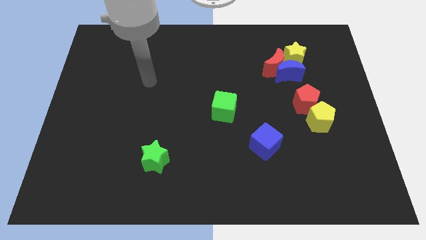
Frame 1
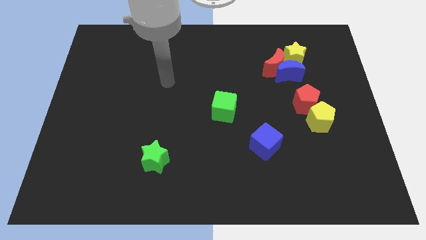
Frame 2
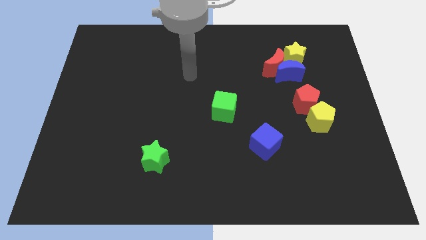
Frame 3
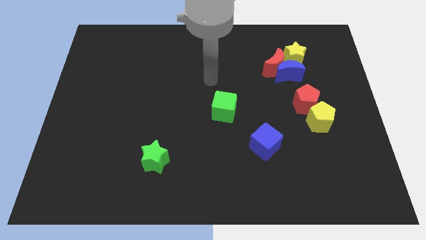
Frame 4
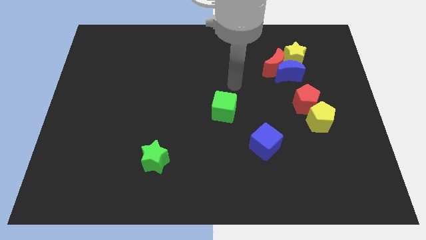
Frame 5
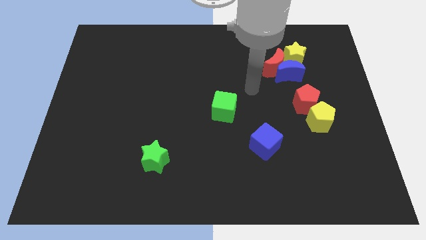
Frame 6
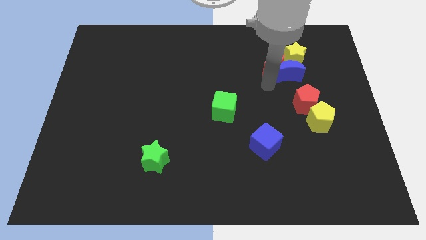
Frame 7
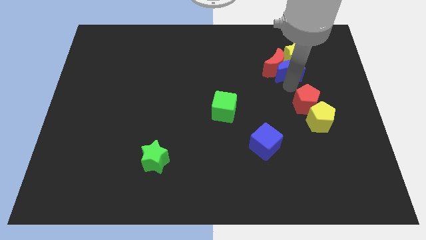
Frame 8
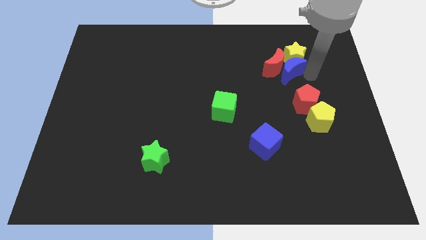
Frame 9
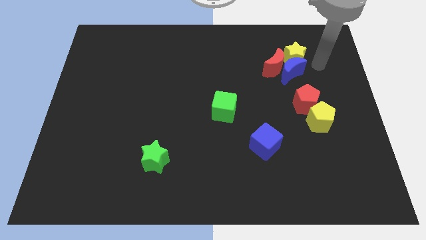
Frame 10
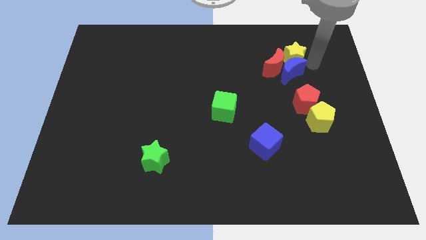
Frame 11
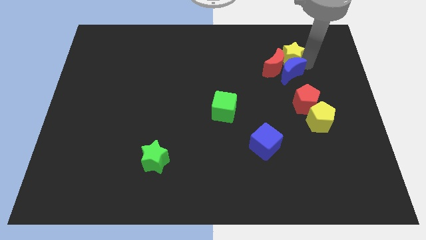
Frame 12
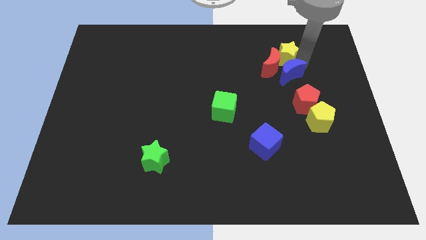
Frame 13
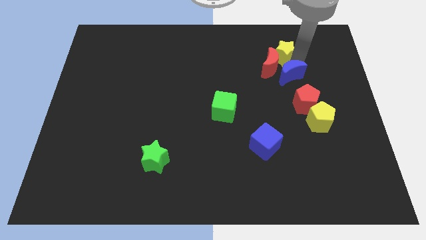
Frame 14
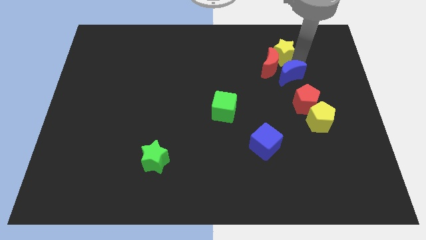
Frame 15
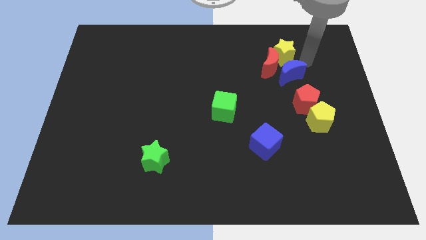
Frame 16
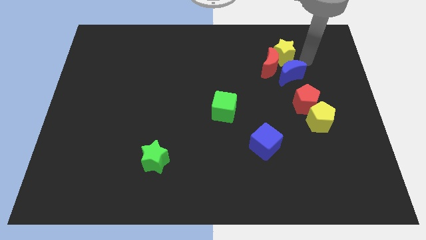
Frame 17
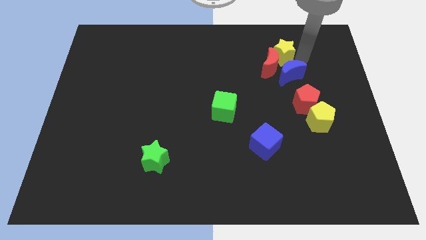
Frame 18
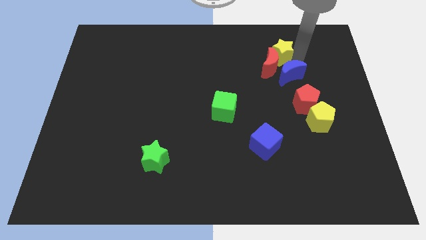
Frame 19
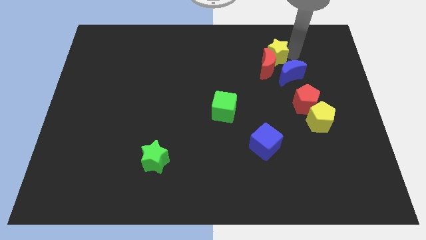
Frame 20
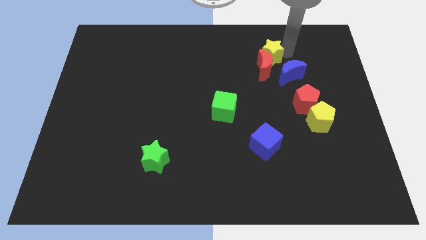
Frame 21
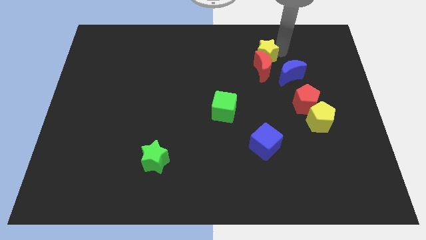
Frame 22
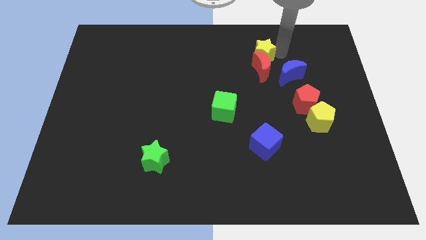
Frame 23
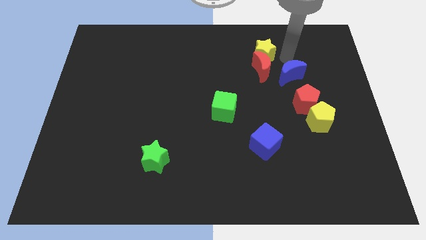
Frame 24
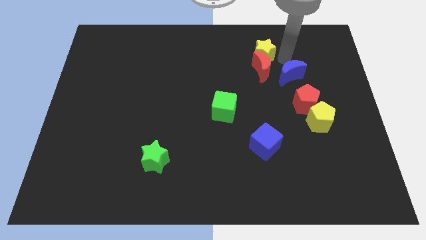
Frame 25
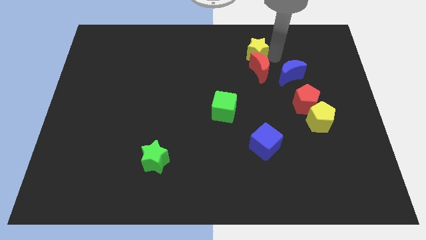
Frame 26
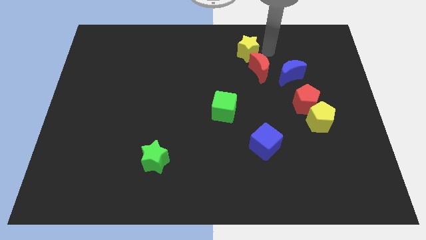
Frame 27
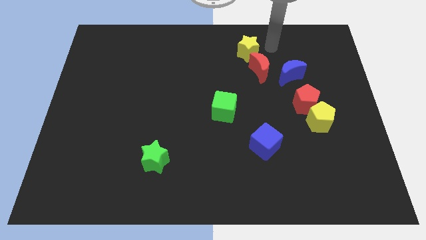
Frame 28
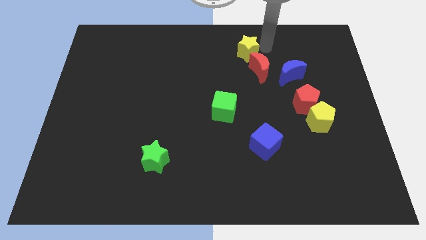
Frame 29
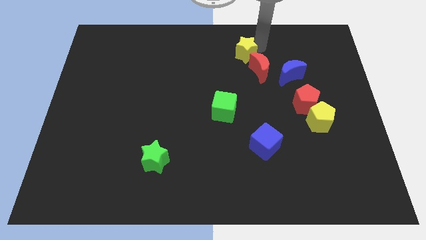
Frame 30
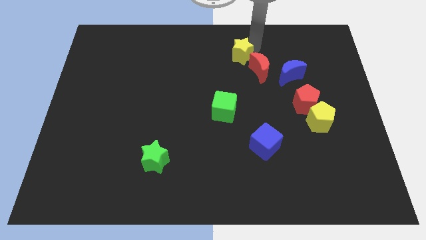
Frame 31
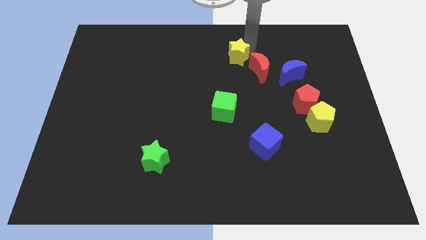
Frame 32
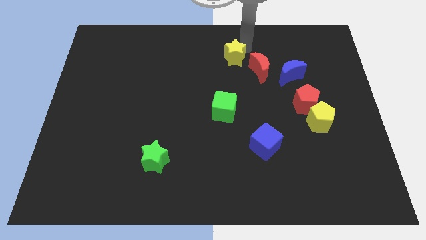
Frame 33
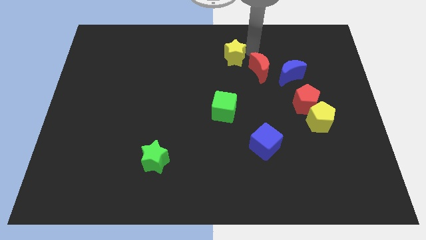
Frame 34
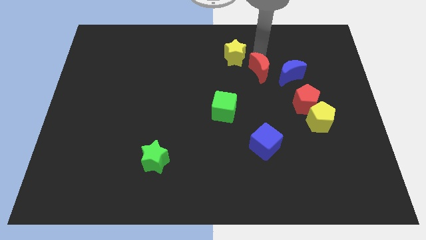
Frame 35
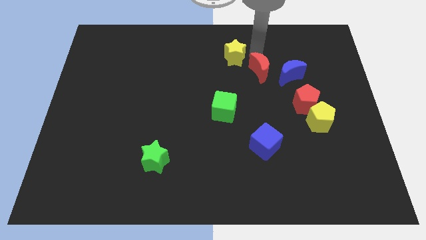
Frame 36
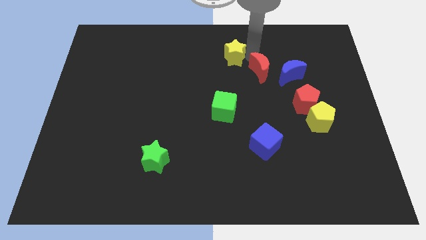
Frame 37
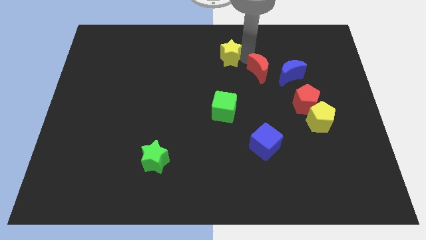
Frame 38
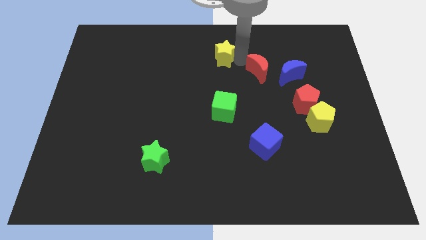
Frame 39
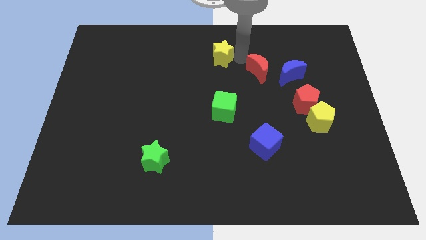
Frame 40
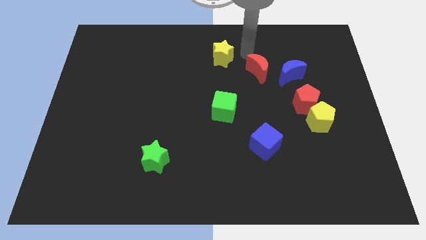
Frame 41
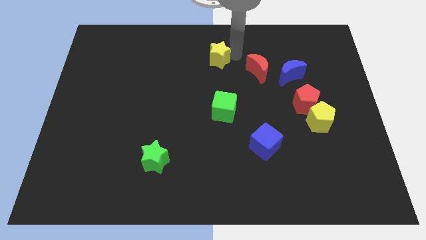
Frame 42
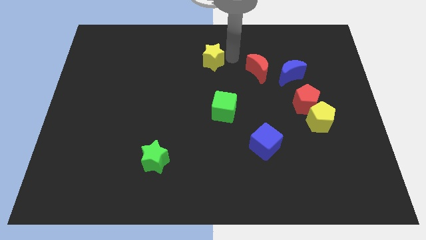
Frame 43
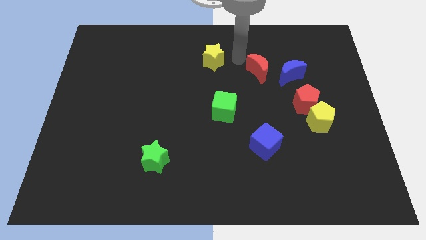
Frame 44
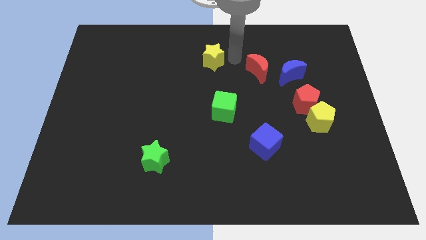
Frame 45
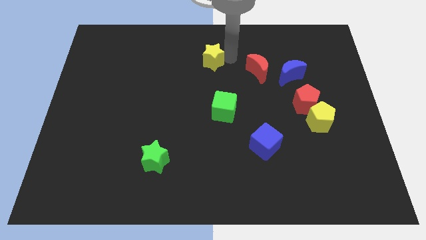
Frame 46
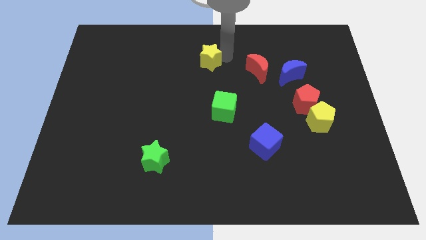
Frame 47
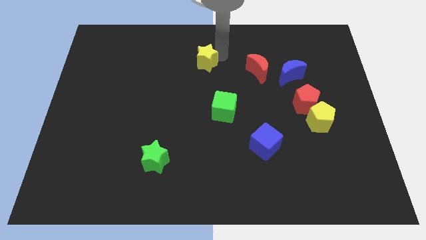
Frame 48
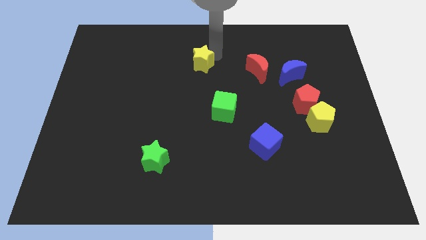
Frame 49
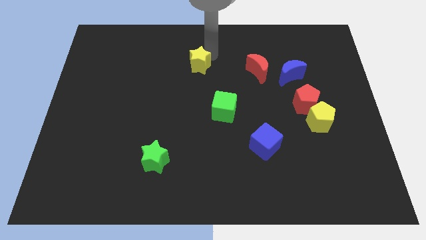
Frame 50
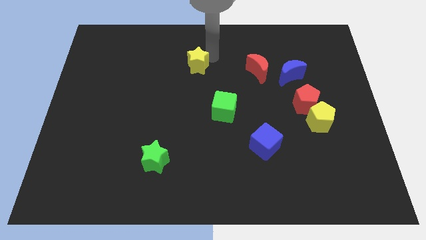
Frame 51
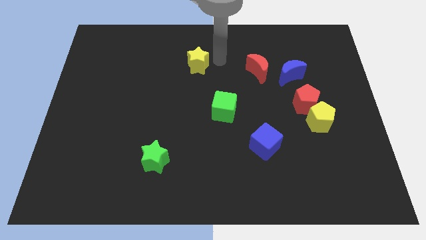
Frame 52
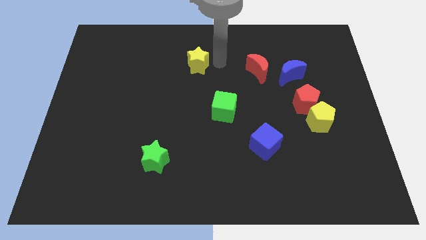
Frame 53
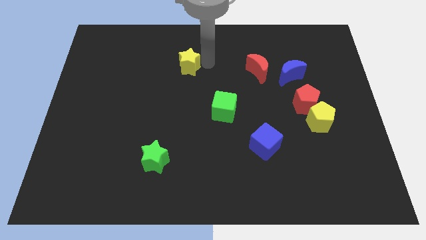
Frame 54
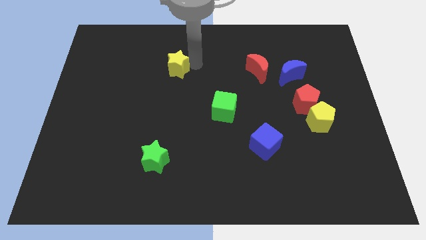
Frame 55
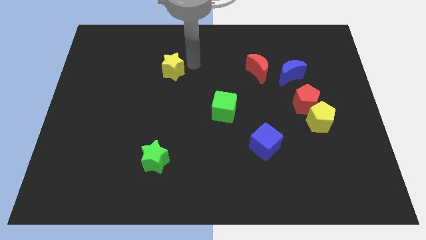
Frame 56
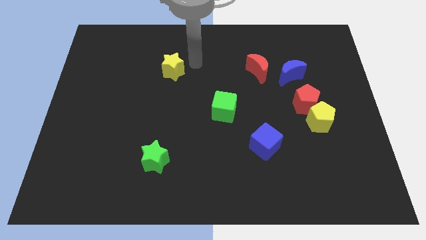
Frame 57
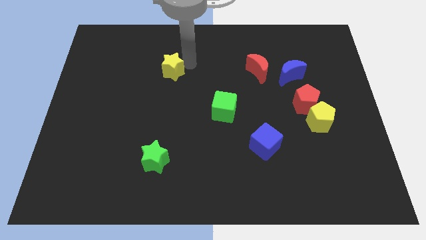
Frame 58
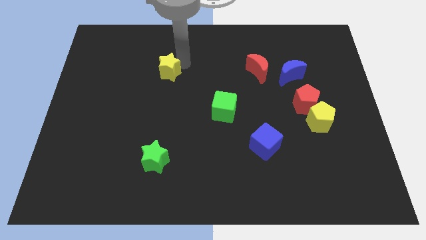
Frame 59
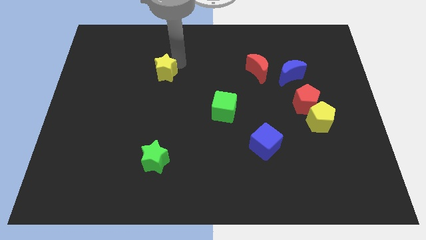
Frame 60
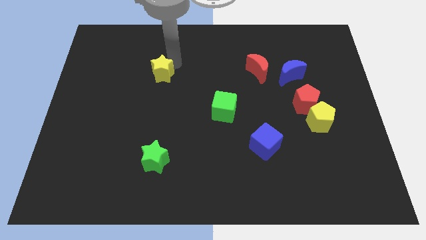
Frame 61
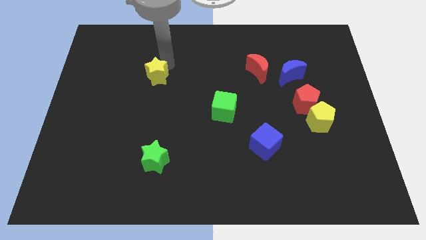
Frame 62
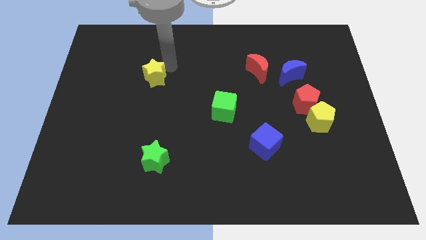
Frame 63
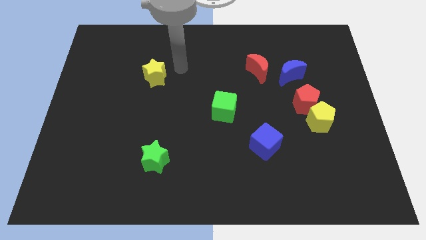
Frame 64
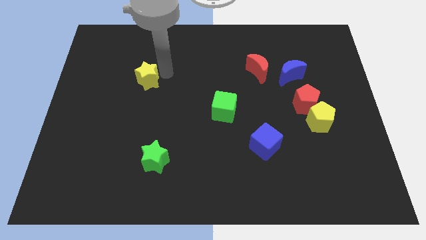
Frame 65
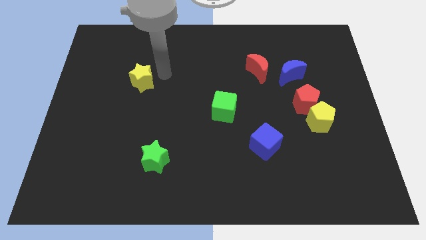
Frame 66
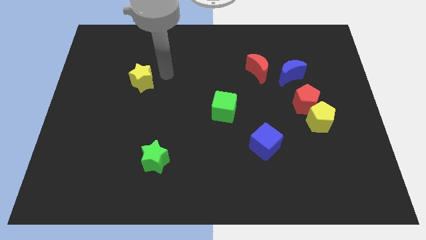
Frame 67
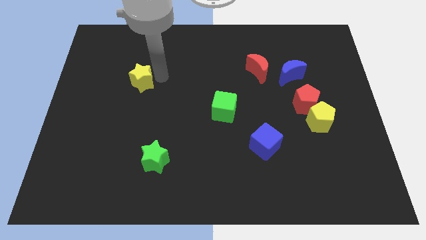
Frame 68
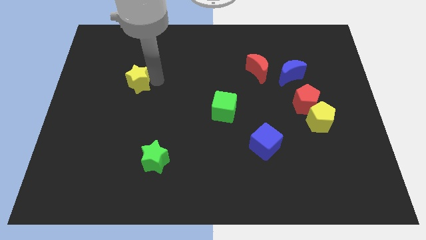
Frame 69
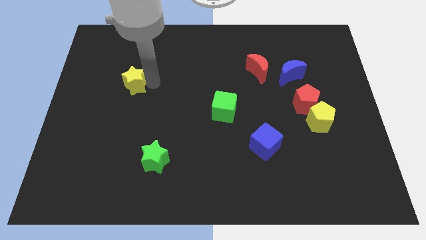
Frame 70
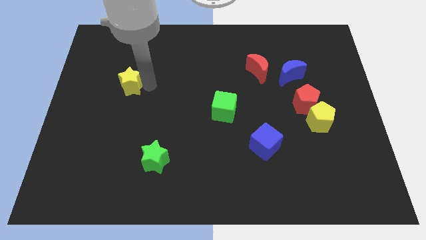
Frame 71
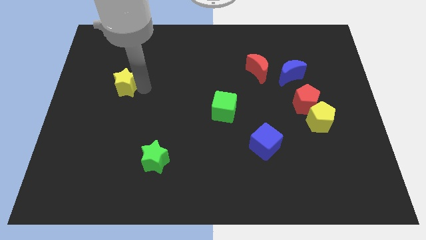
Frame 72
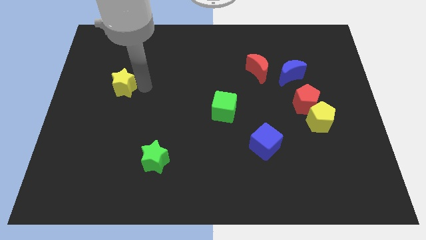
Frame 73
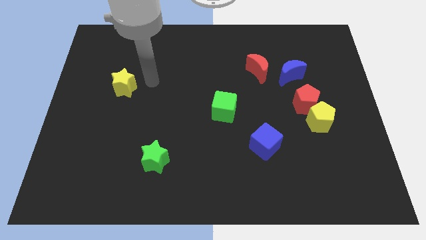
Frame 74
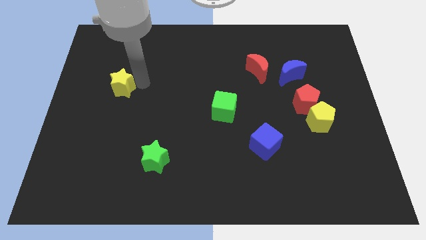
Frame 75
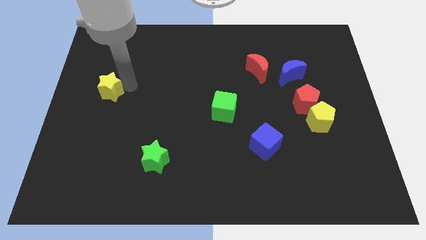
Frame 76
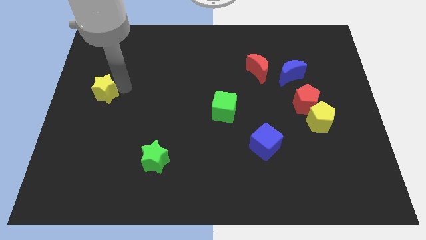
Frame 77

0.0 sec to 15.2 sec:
put the yellow star to the left side of the board
